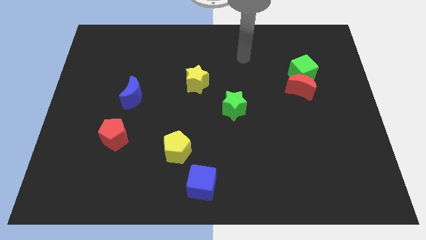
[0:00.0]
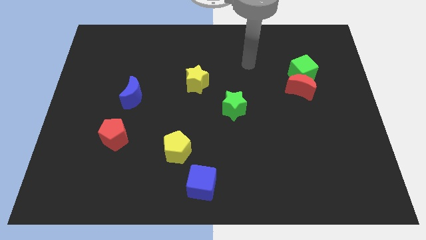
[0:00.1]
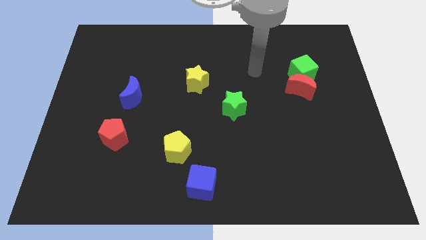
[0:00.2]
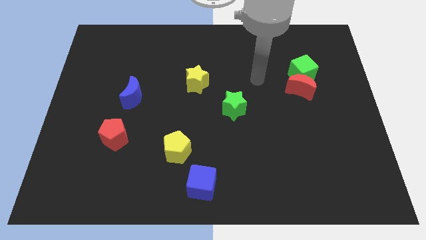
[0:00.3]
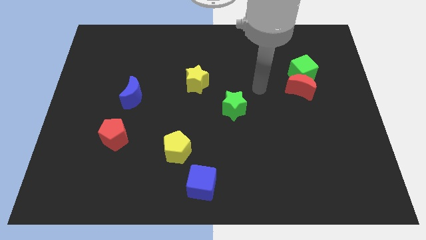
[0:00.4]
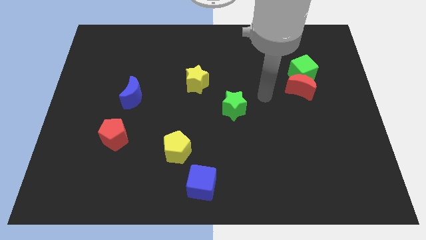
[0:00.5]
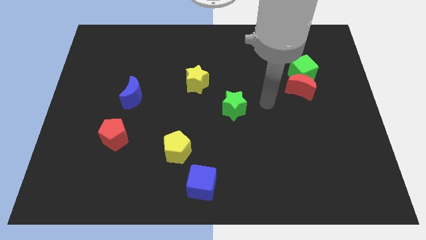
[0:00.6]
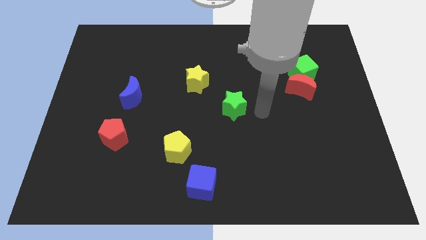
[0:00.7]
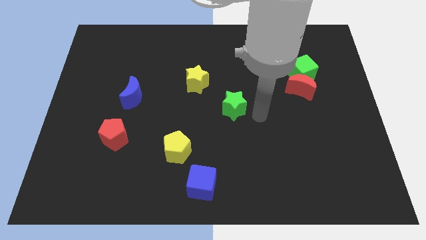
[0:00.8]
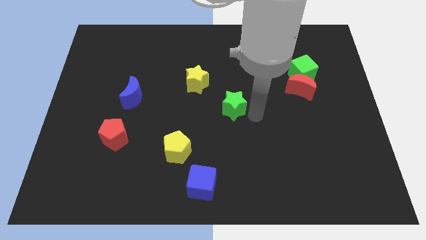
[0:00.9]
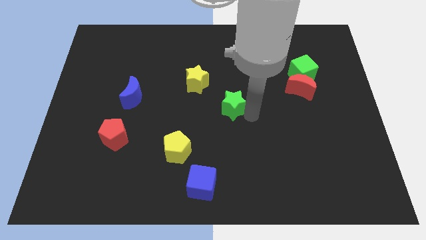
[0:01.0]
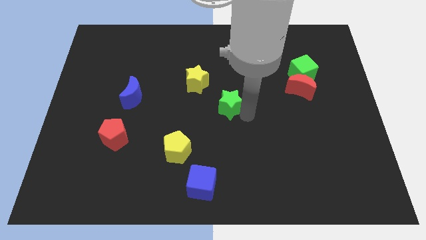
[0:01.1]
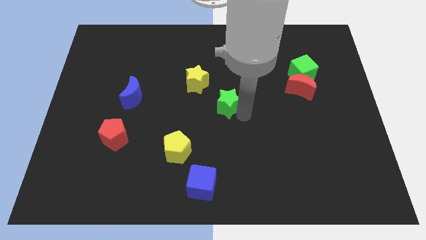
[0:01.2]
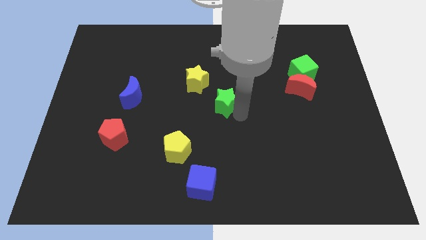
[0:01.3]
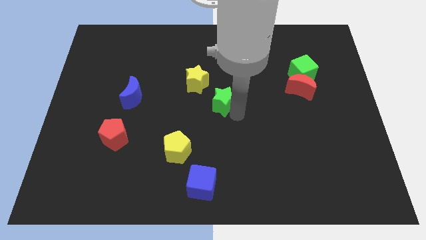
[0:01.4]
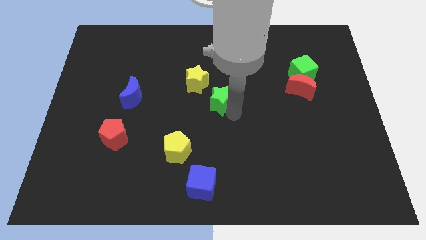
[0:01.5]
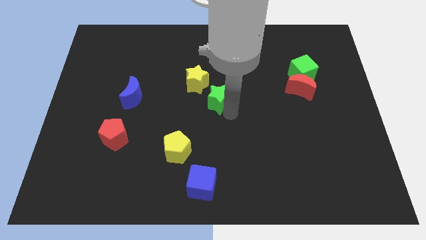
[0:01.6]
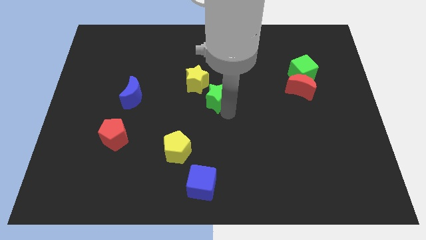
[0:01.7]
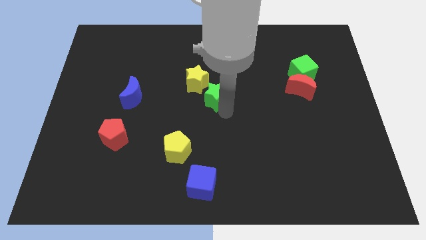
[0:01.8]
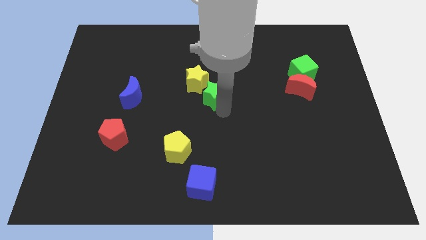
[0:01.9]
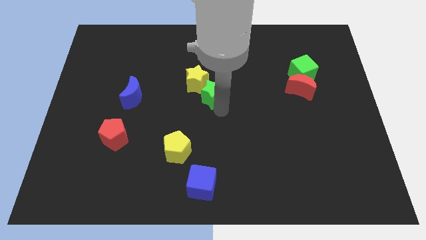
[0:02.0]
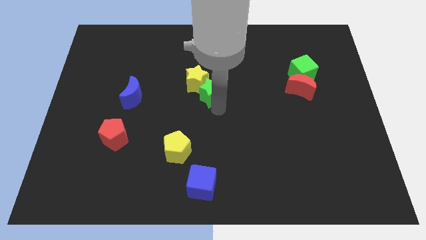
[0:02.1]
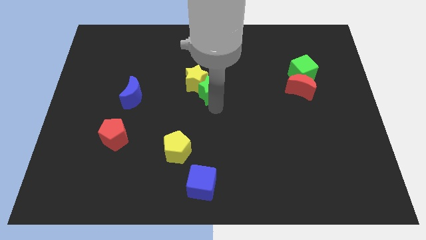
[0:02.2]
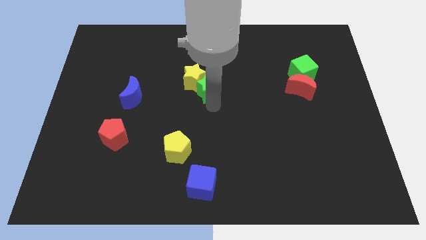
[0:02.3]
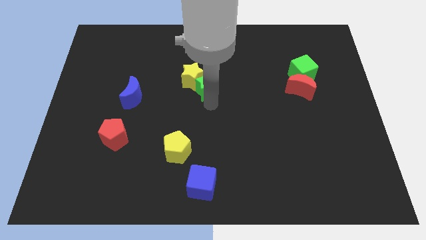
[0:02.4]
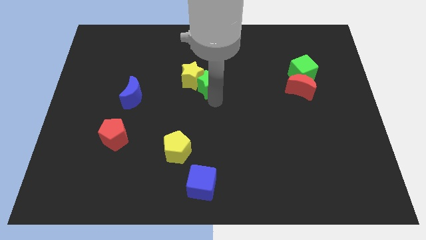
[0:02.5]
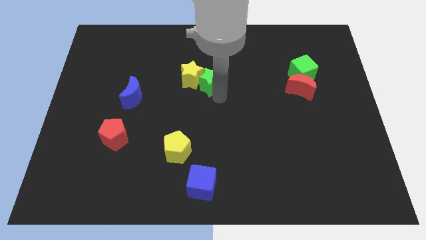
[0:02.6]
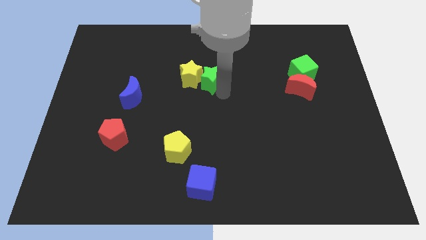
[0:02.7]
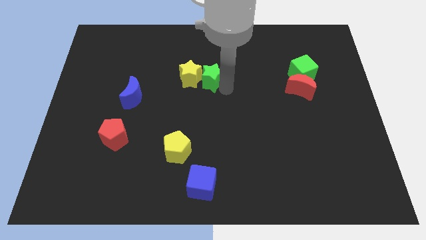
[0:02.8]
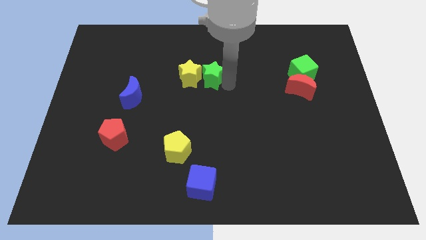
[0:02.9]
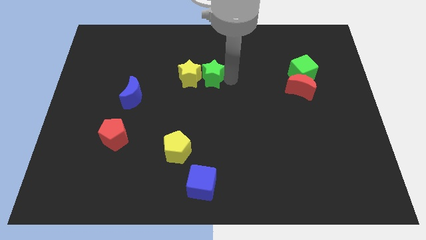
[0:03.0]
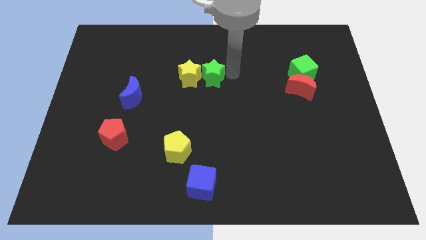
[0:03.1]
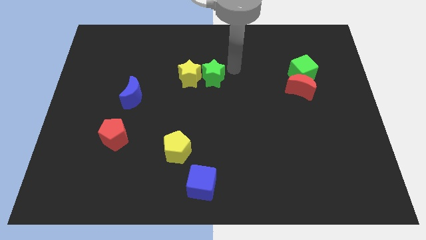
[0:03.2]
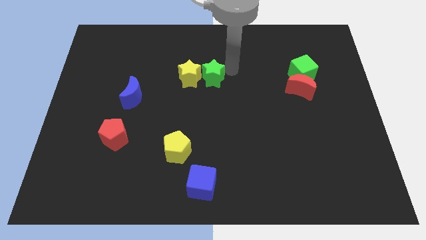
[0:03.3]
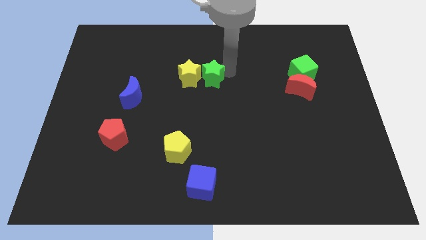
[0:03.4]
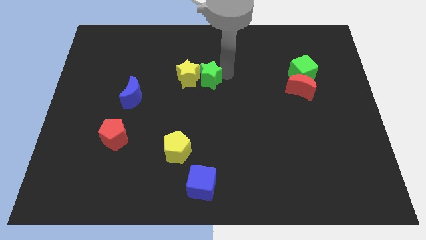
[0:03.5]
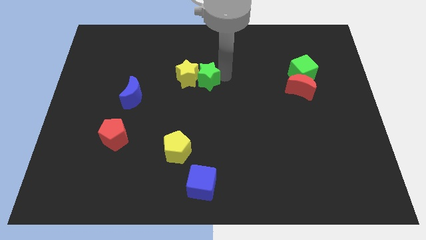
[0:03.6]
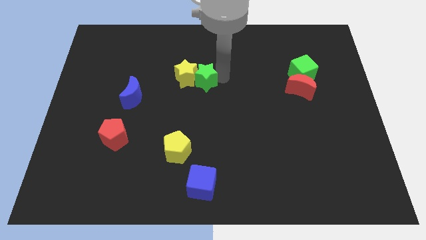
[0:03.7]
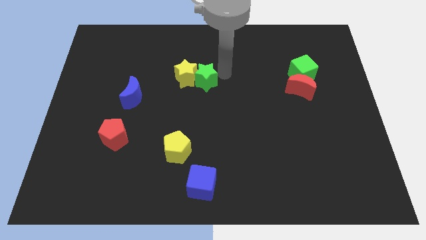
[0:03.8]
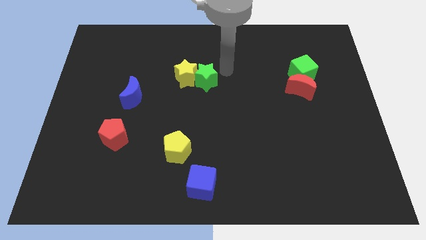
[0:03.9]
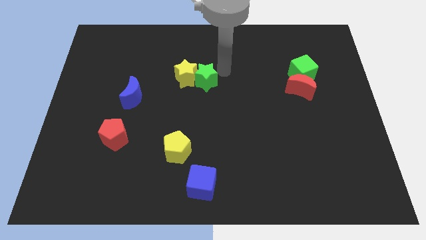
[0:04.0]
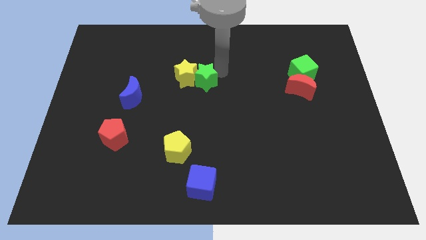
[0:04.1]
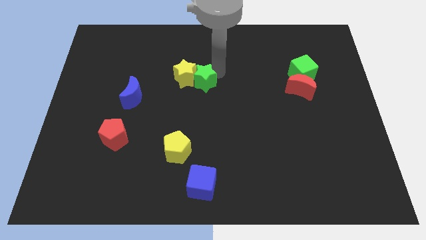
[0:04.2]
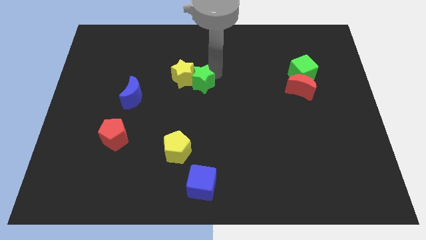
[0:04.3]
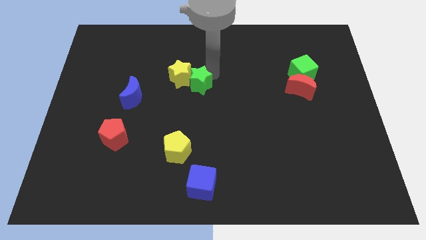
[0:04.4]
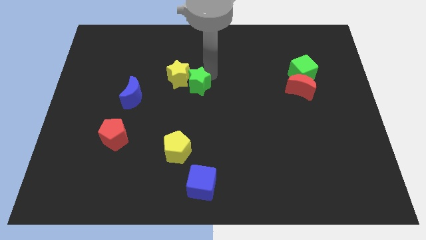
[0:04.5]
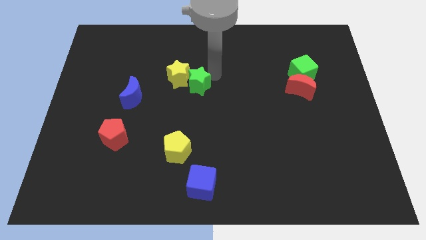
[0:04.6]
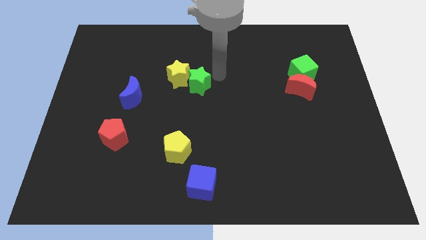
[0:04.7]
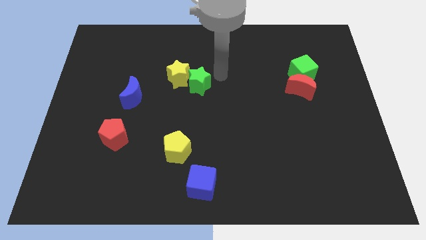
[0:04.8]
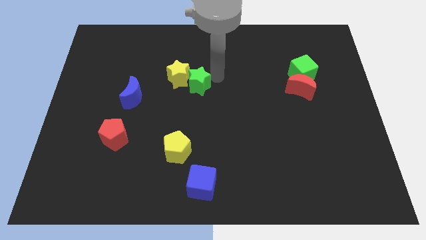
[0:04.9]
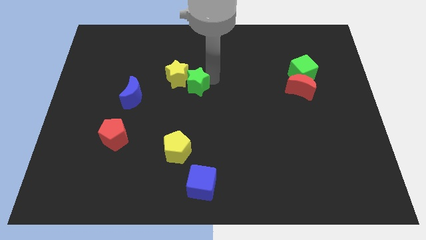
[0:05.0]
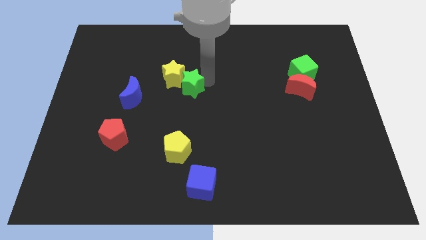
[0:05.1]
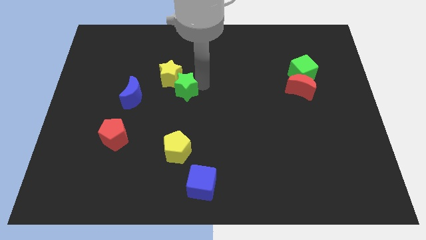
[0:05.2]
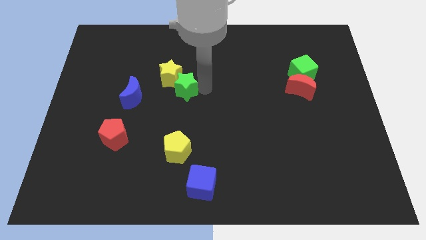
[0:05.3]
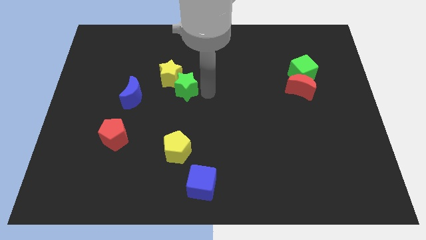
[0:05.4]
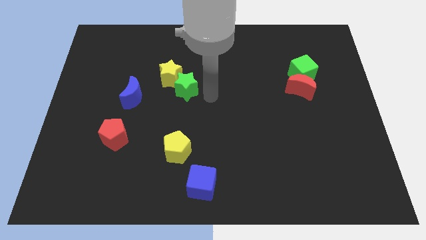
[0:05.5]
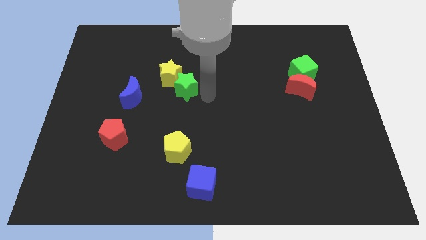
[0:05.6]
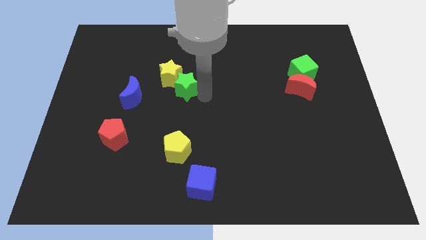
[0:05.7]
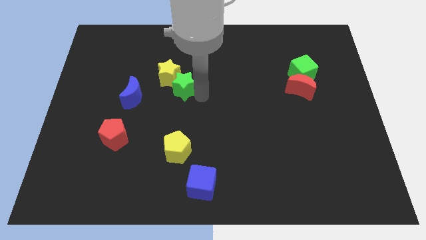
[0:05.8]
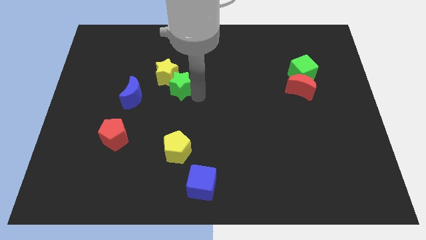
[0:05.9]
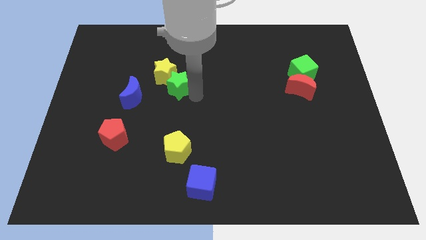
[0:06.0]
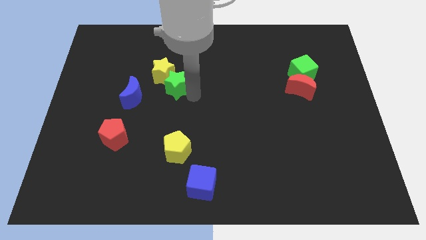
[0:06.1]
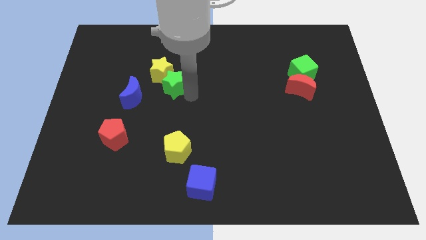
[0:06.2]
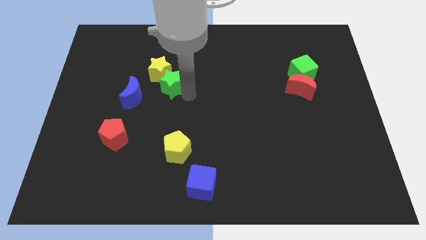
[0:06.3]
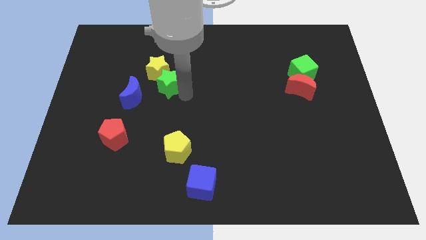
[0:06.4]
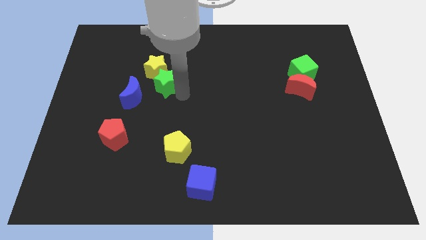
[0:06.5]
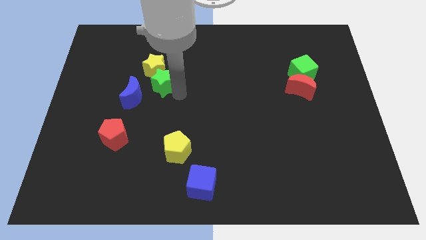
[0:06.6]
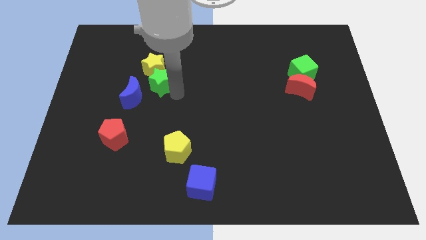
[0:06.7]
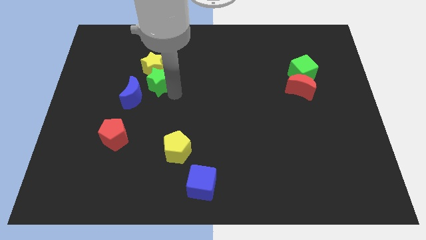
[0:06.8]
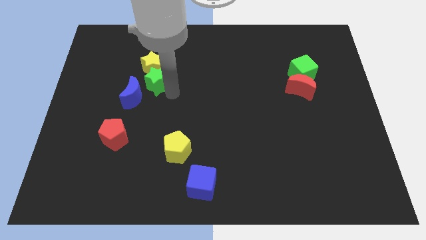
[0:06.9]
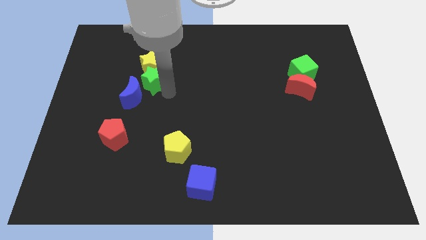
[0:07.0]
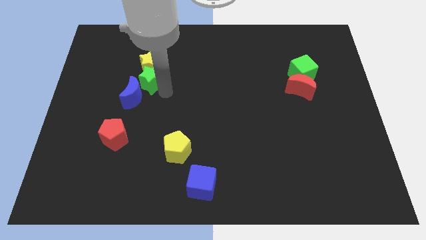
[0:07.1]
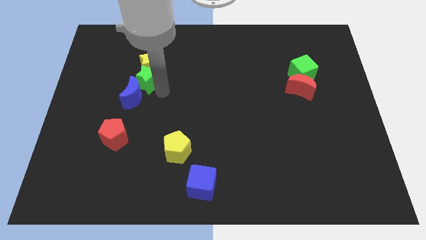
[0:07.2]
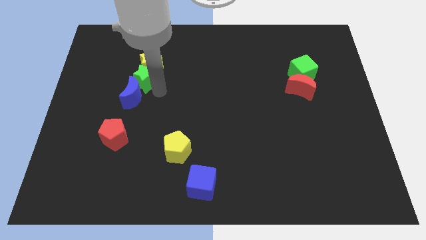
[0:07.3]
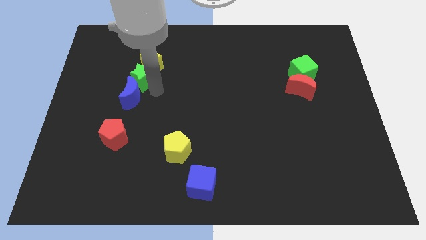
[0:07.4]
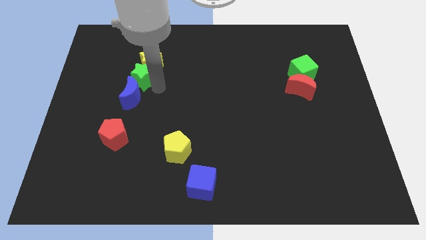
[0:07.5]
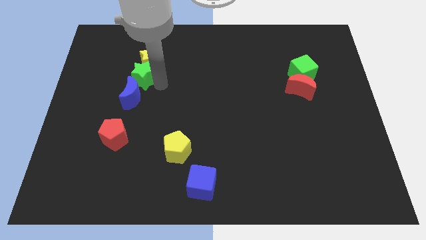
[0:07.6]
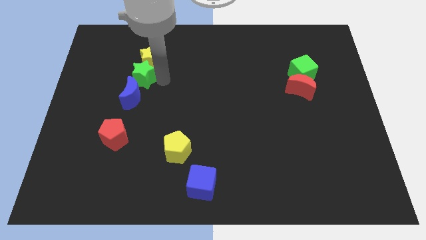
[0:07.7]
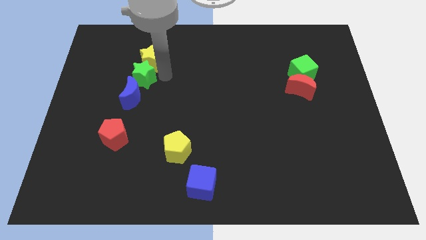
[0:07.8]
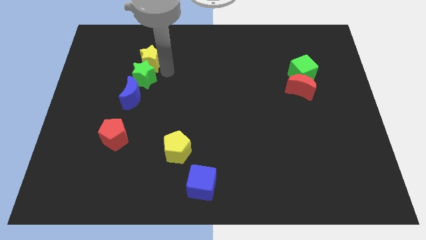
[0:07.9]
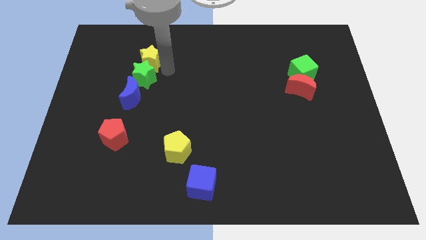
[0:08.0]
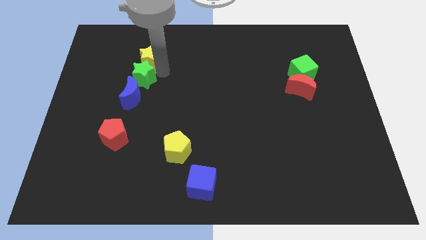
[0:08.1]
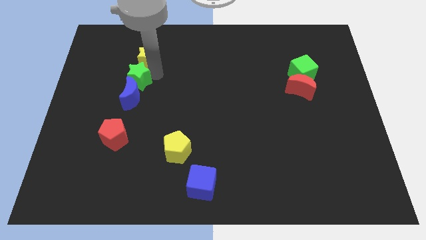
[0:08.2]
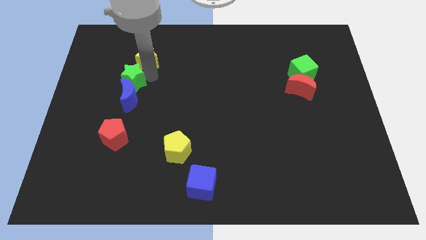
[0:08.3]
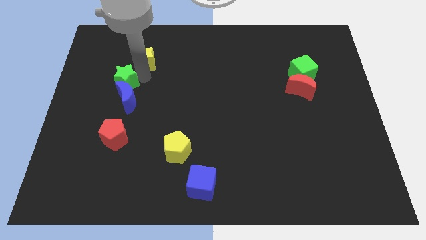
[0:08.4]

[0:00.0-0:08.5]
push the green star to the top of the red pentagon
